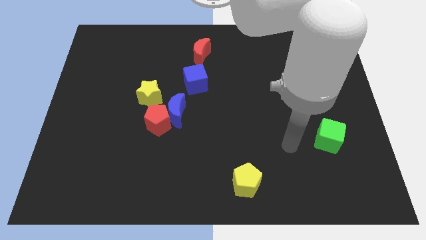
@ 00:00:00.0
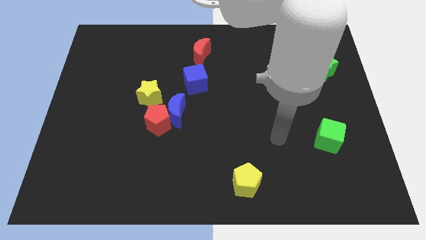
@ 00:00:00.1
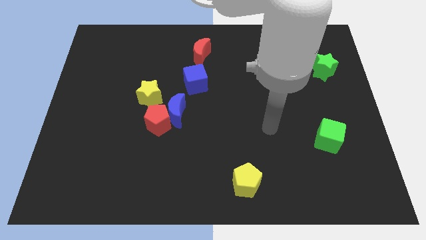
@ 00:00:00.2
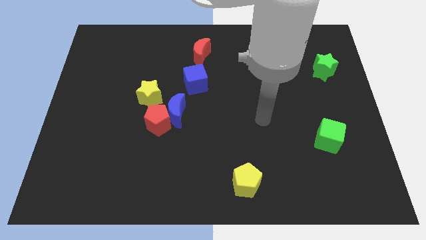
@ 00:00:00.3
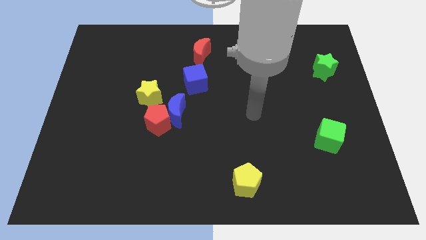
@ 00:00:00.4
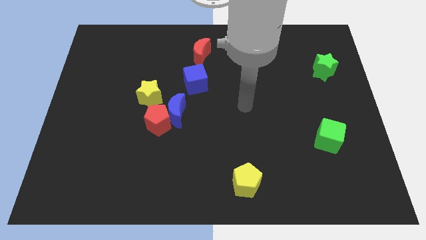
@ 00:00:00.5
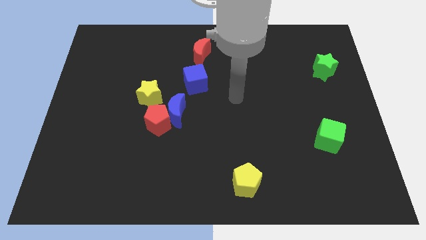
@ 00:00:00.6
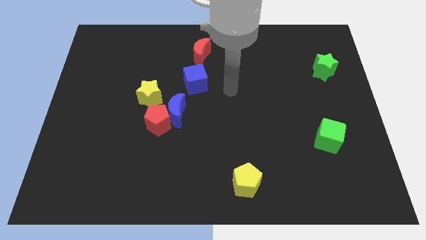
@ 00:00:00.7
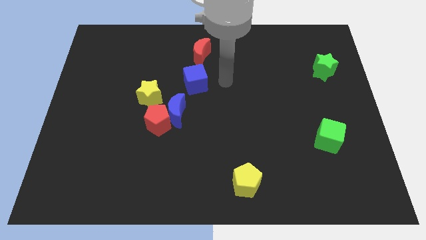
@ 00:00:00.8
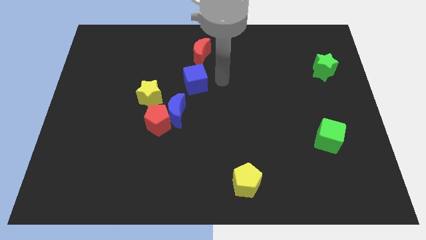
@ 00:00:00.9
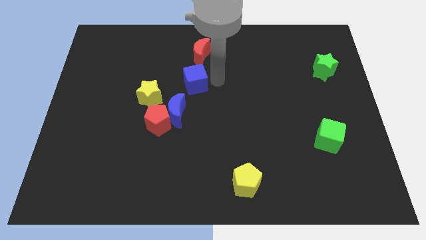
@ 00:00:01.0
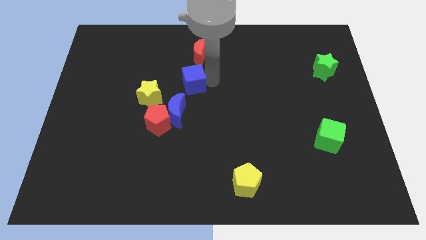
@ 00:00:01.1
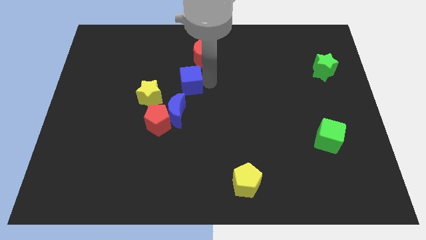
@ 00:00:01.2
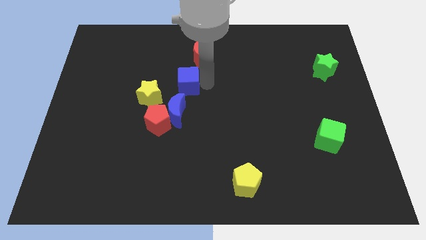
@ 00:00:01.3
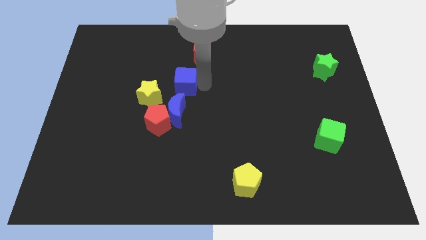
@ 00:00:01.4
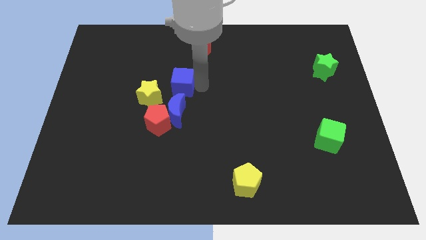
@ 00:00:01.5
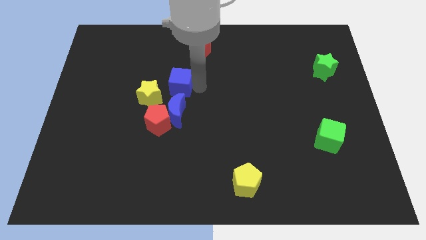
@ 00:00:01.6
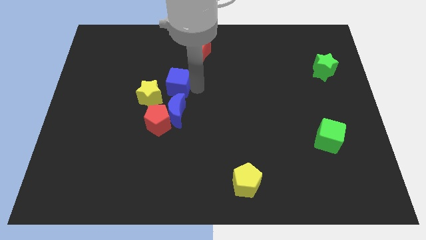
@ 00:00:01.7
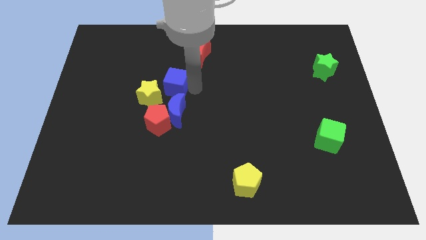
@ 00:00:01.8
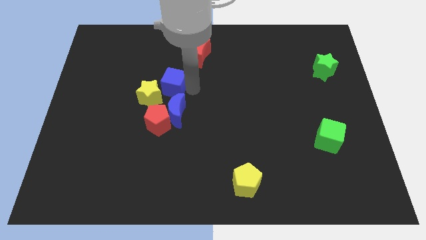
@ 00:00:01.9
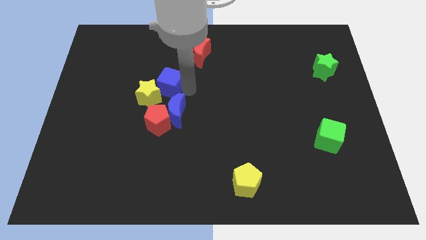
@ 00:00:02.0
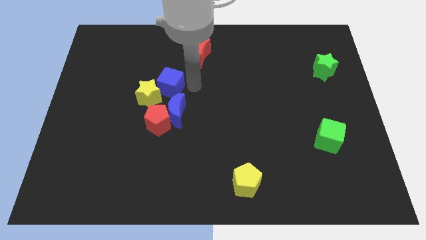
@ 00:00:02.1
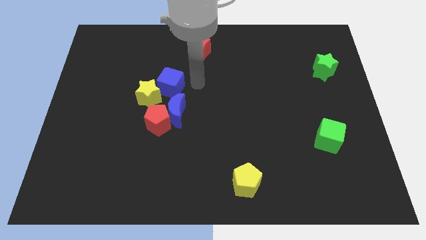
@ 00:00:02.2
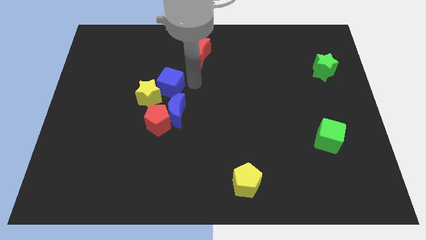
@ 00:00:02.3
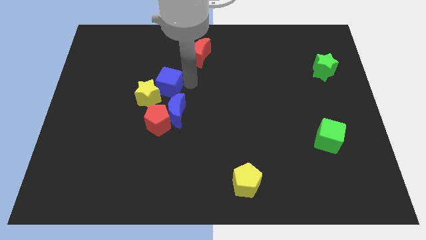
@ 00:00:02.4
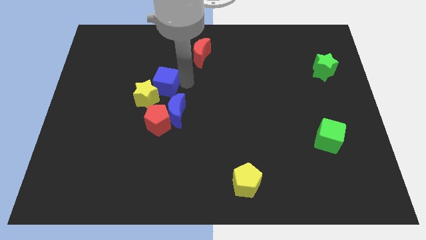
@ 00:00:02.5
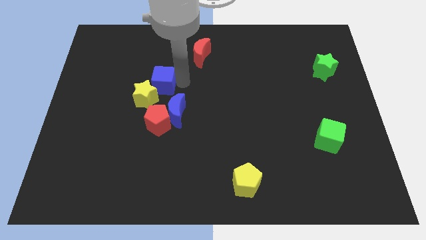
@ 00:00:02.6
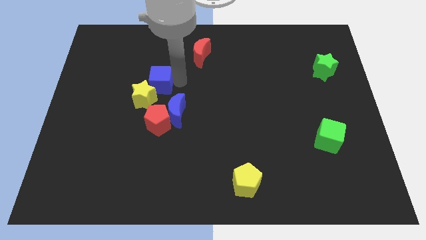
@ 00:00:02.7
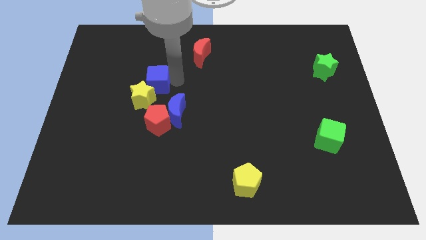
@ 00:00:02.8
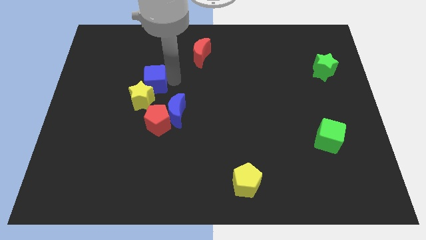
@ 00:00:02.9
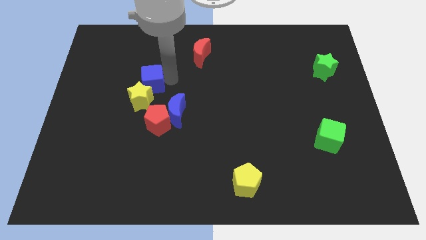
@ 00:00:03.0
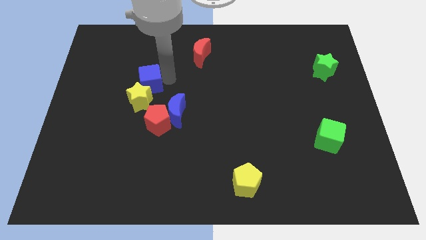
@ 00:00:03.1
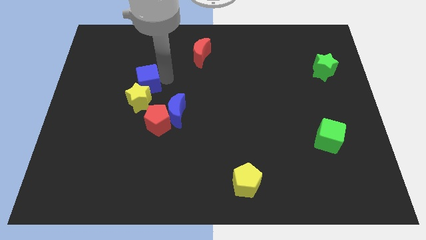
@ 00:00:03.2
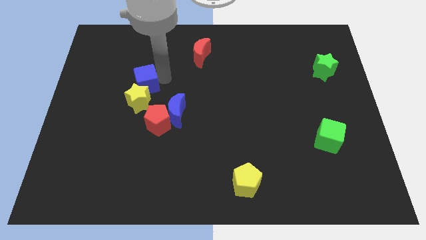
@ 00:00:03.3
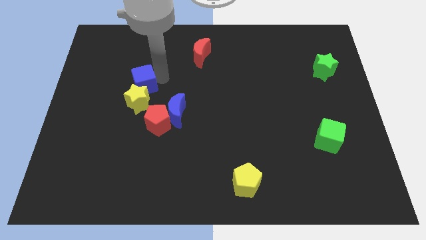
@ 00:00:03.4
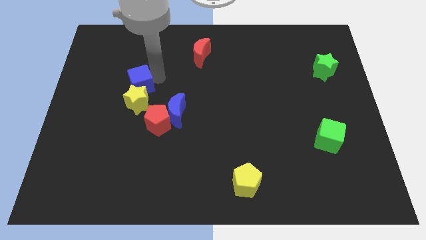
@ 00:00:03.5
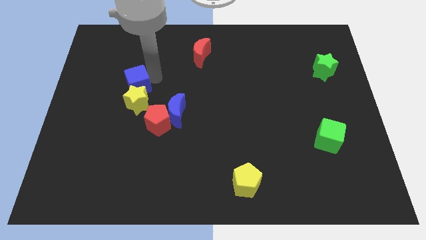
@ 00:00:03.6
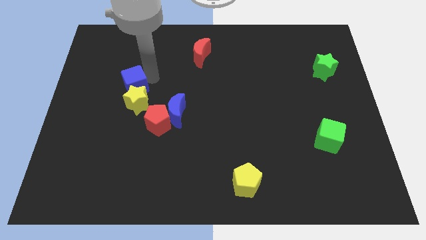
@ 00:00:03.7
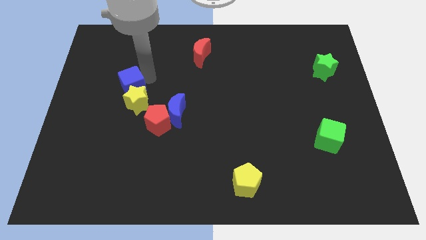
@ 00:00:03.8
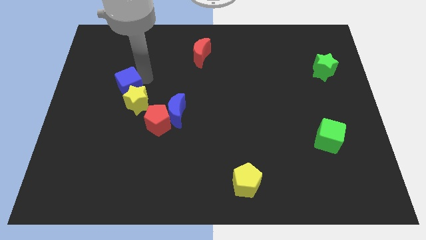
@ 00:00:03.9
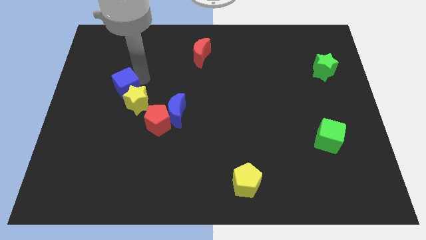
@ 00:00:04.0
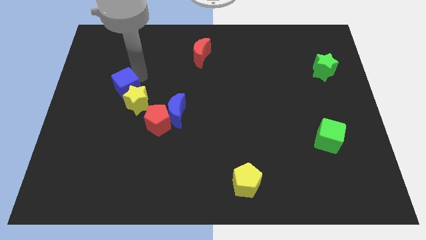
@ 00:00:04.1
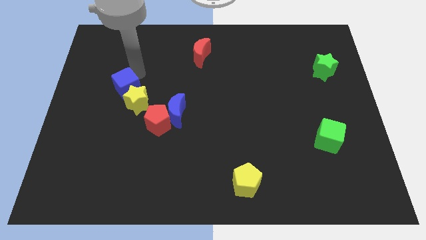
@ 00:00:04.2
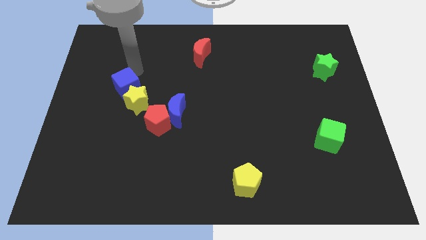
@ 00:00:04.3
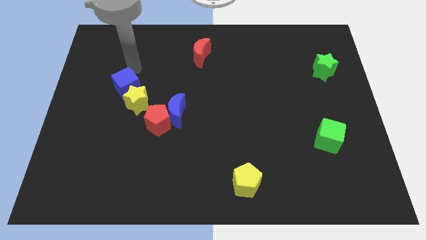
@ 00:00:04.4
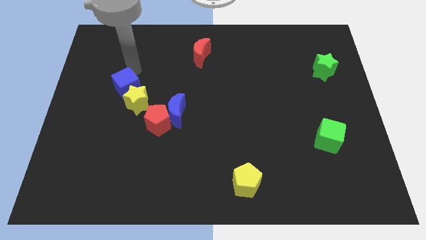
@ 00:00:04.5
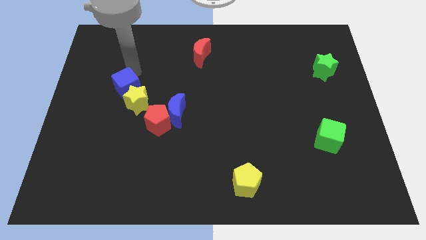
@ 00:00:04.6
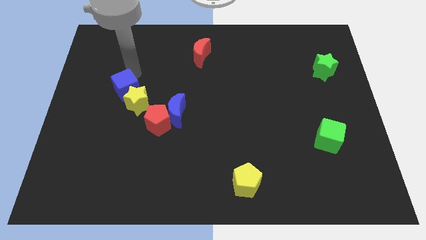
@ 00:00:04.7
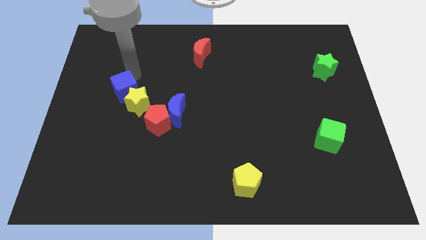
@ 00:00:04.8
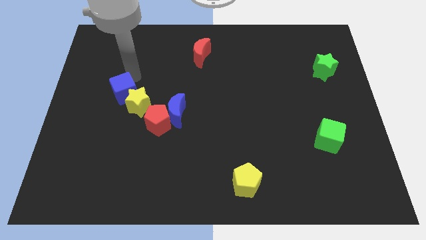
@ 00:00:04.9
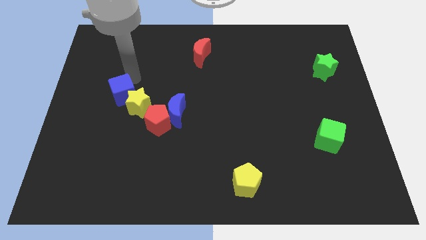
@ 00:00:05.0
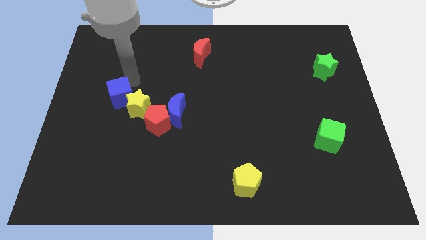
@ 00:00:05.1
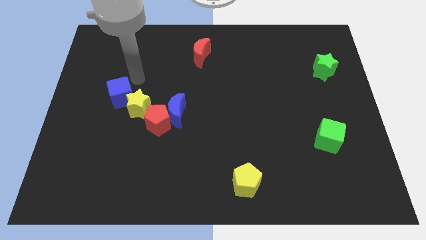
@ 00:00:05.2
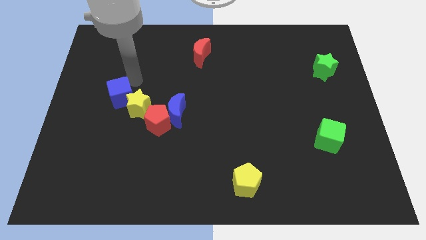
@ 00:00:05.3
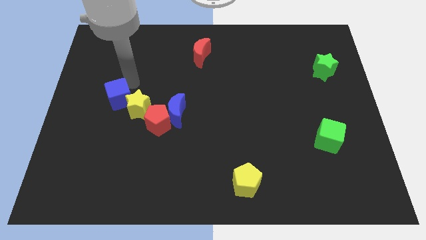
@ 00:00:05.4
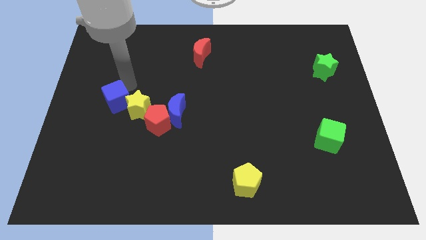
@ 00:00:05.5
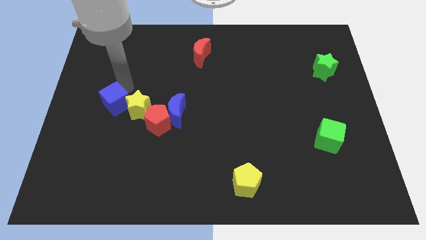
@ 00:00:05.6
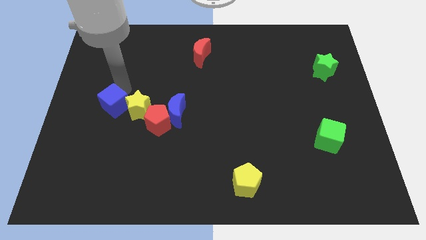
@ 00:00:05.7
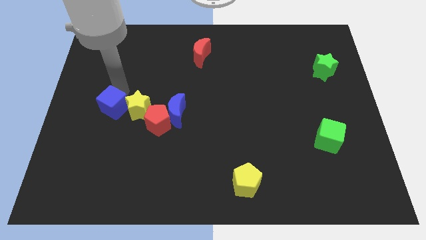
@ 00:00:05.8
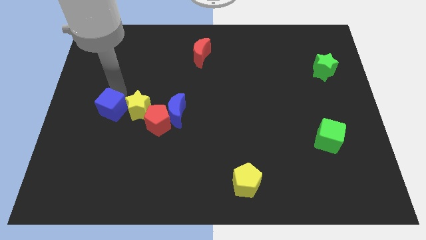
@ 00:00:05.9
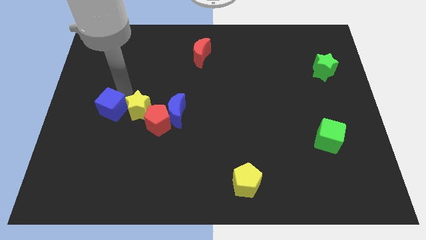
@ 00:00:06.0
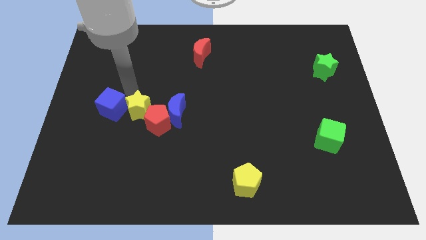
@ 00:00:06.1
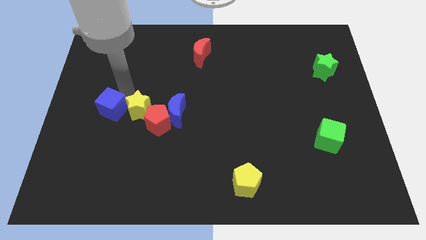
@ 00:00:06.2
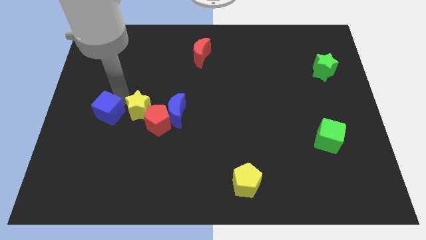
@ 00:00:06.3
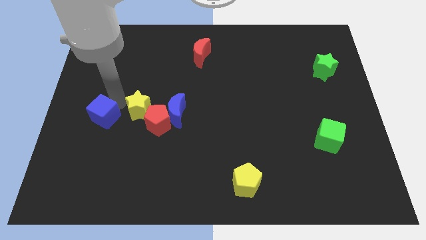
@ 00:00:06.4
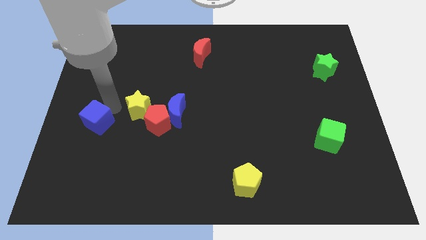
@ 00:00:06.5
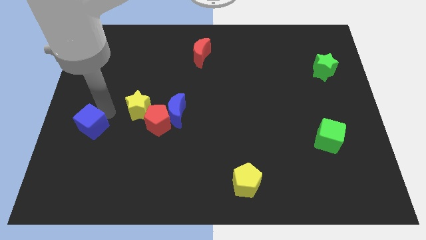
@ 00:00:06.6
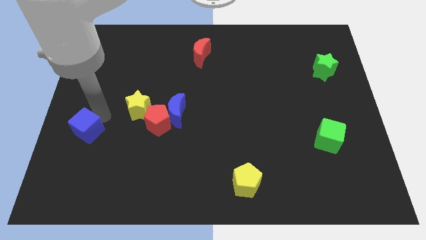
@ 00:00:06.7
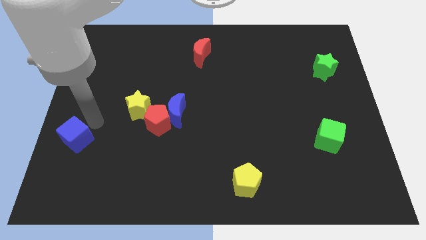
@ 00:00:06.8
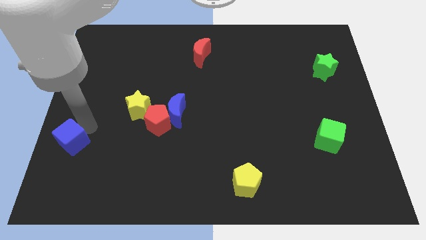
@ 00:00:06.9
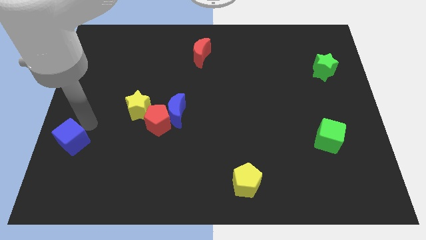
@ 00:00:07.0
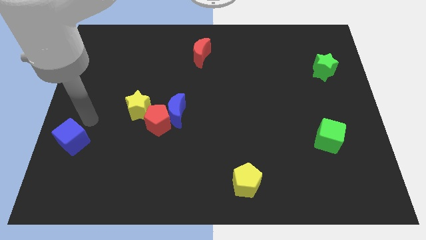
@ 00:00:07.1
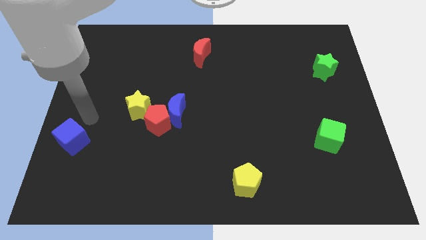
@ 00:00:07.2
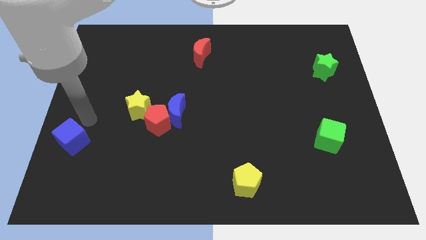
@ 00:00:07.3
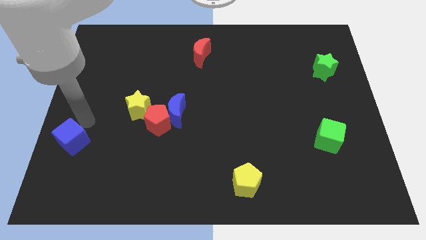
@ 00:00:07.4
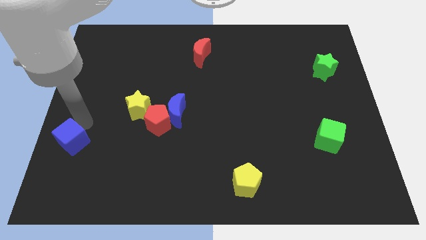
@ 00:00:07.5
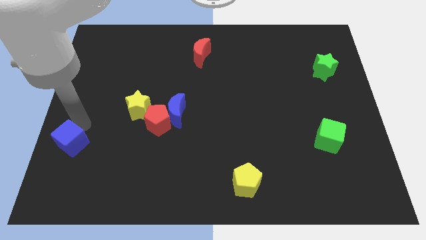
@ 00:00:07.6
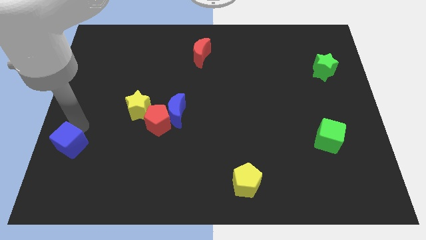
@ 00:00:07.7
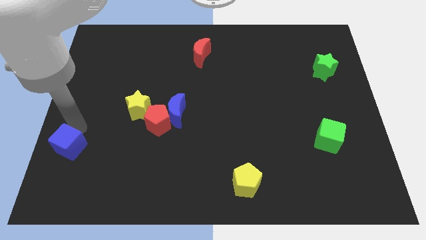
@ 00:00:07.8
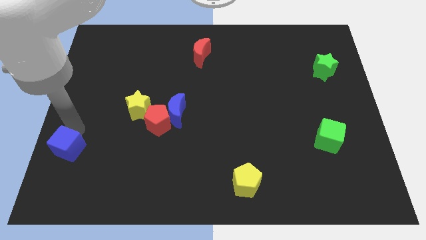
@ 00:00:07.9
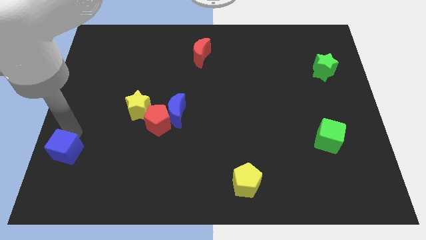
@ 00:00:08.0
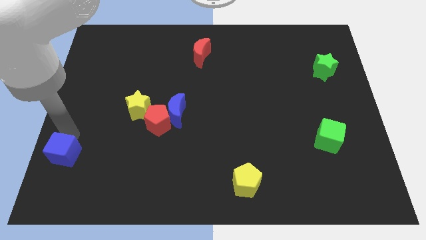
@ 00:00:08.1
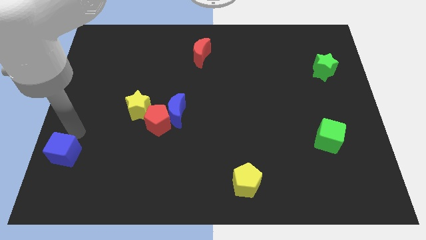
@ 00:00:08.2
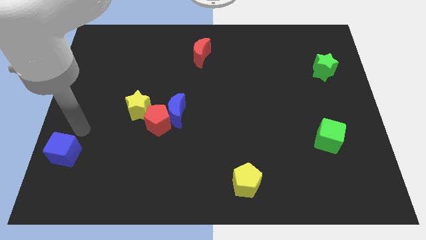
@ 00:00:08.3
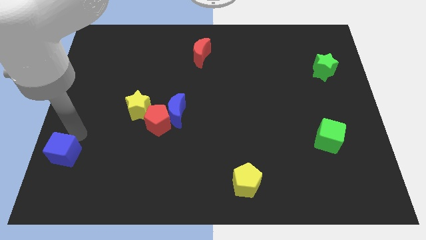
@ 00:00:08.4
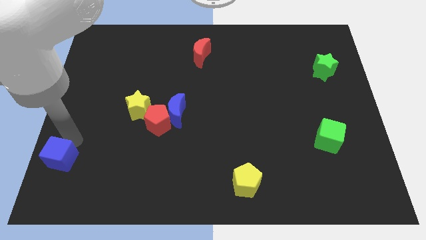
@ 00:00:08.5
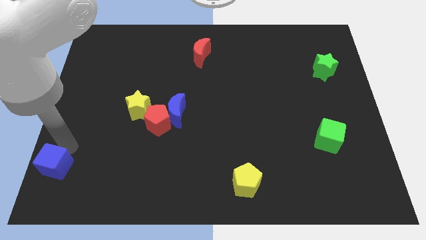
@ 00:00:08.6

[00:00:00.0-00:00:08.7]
put the blue cube to the bottom left
